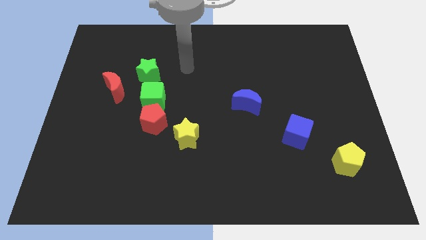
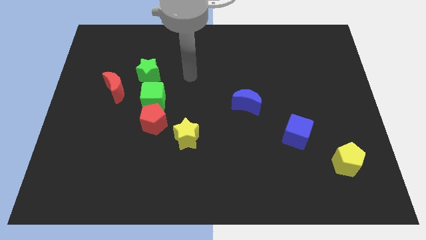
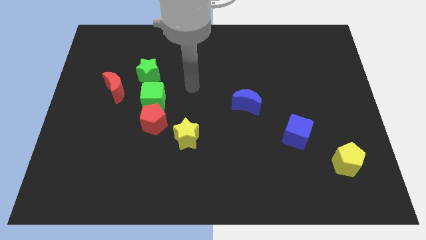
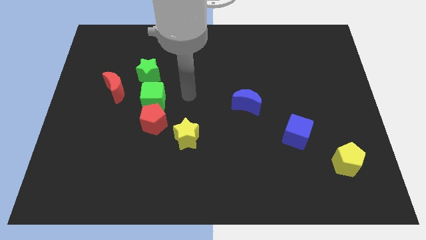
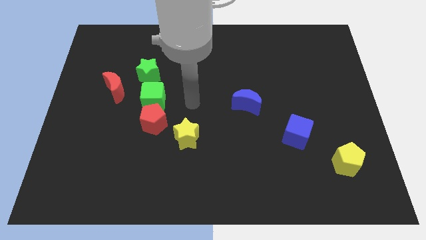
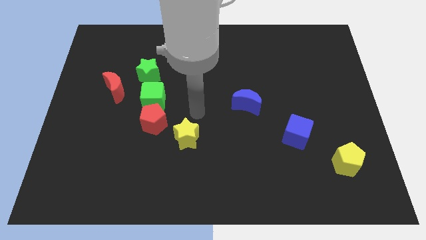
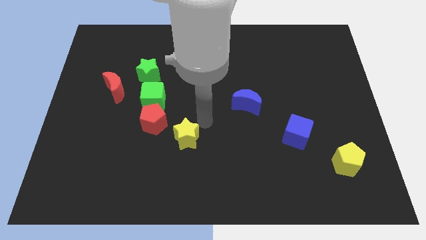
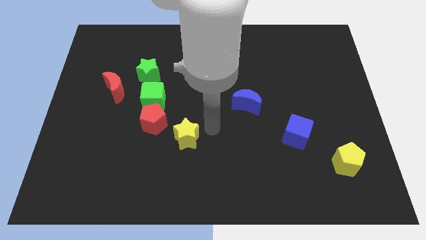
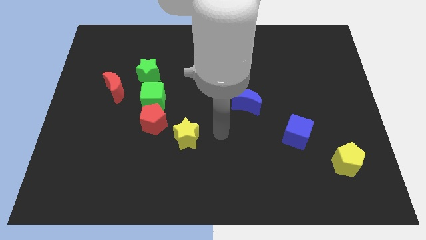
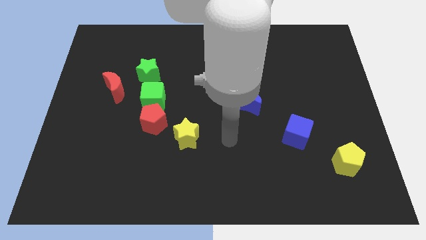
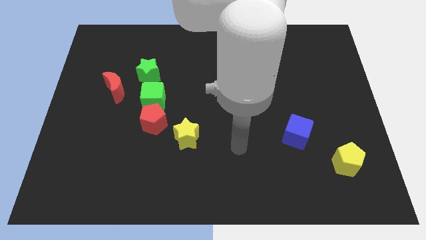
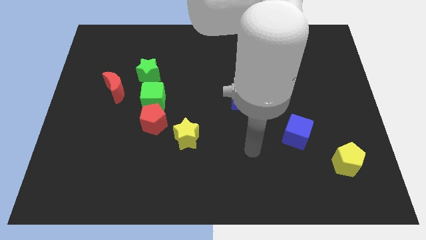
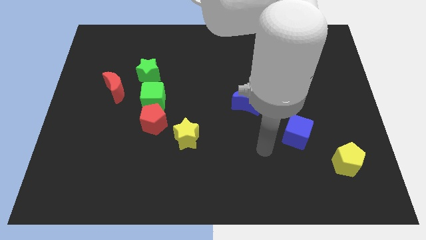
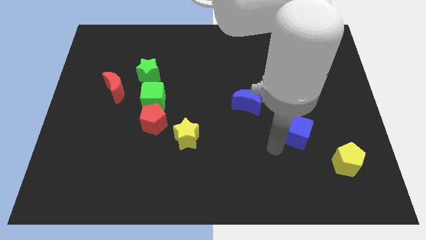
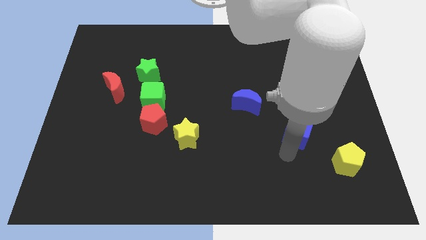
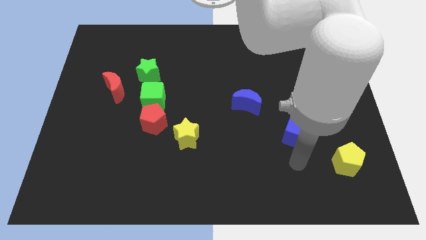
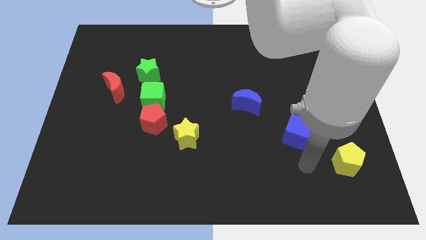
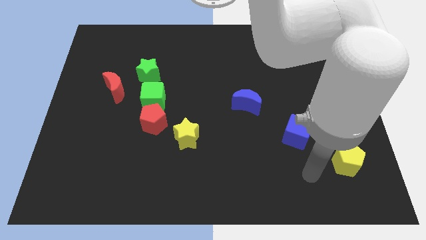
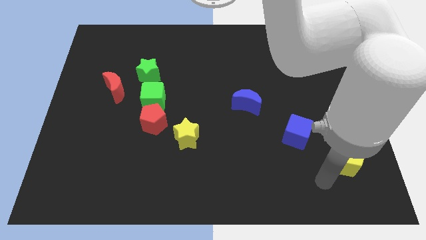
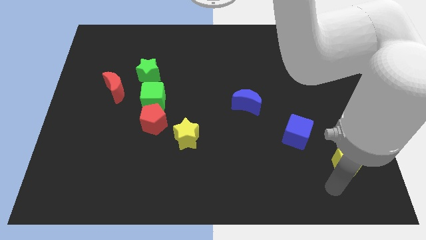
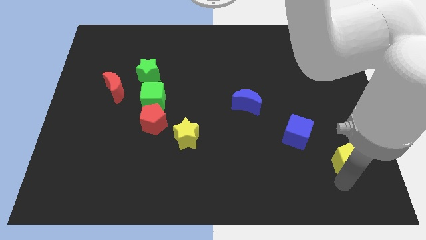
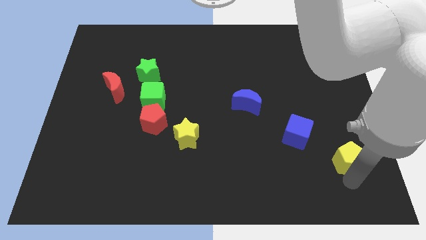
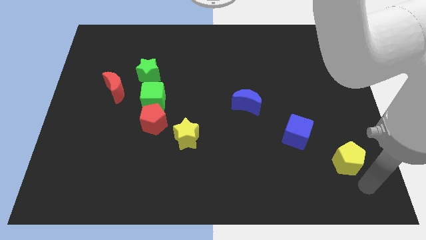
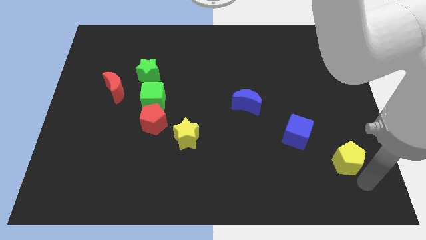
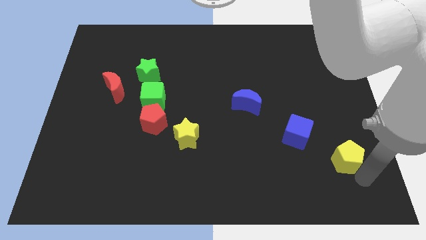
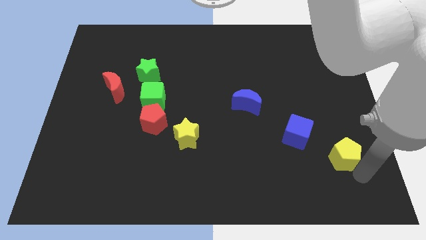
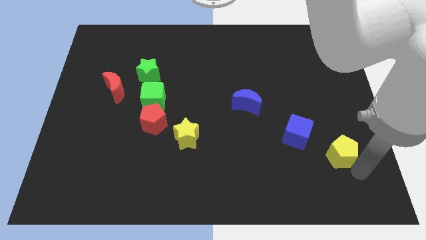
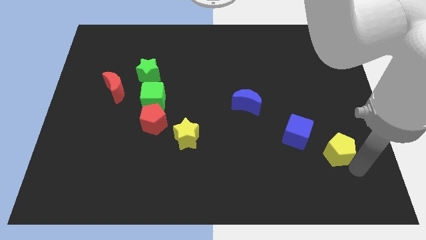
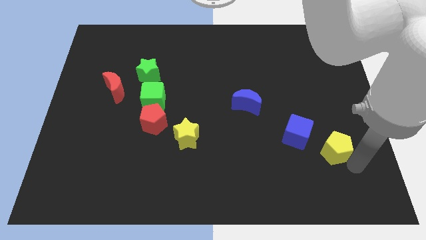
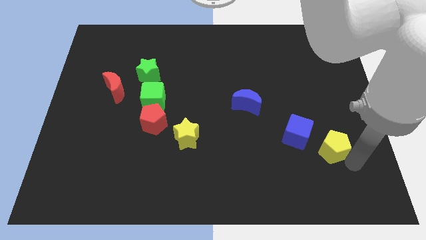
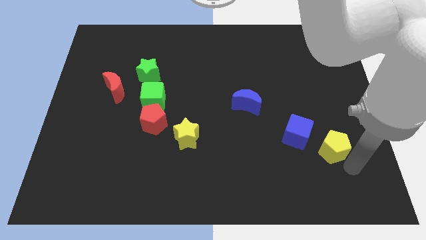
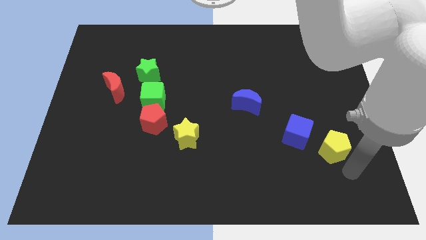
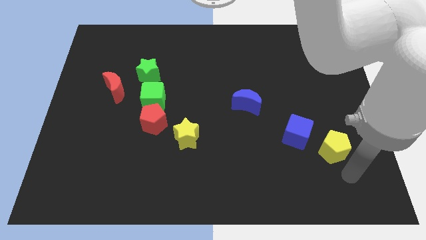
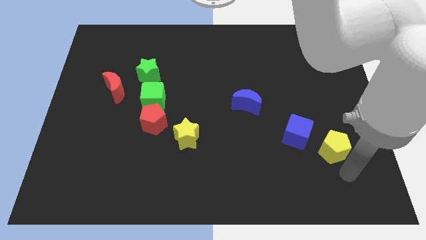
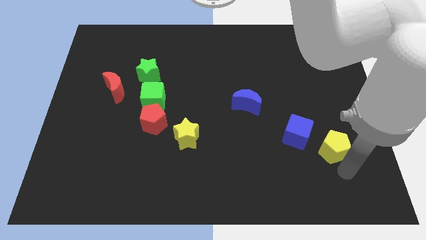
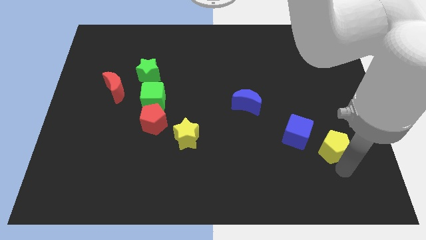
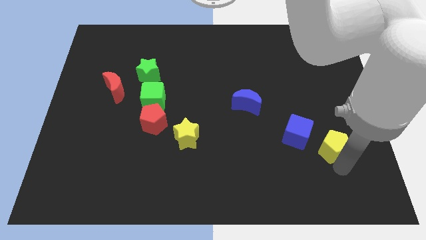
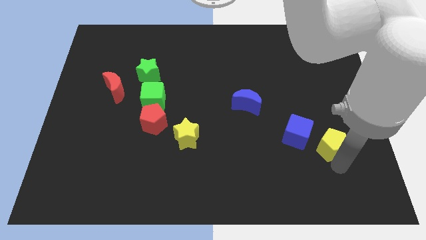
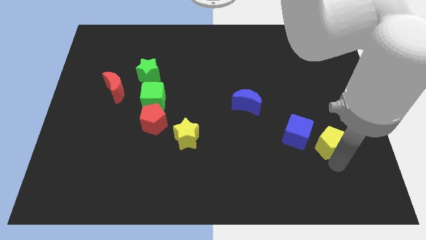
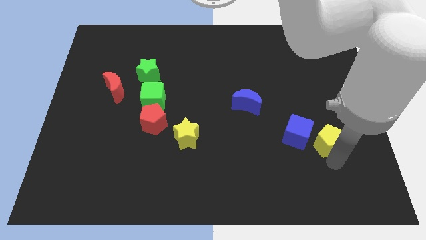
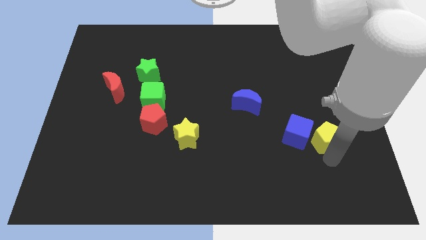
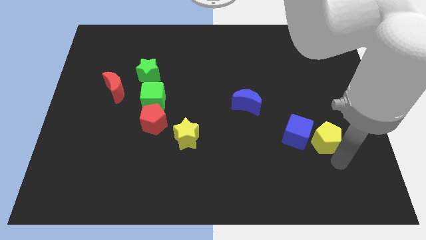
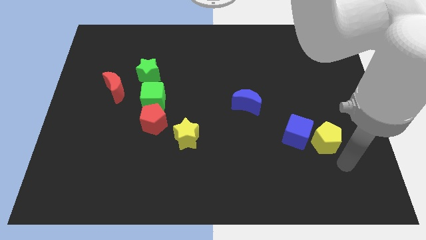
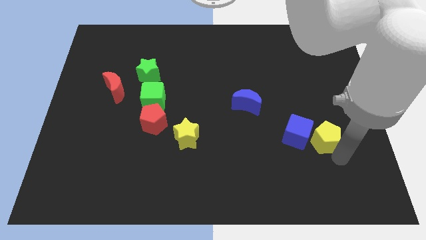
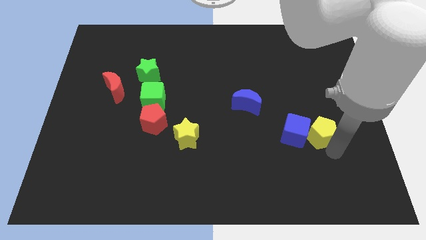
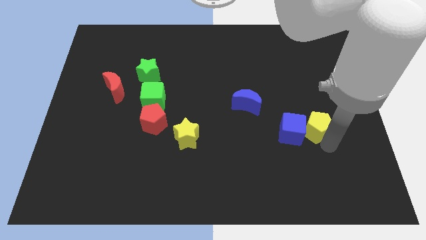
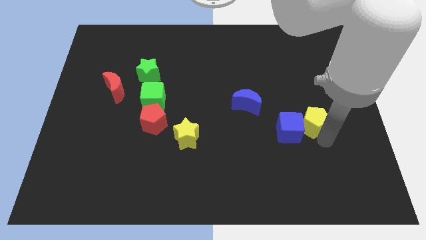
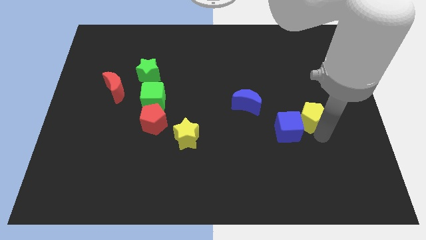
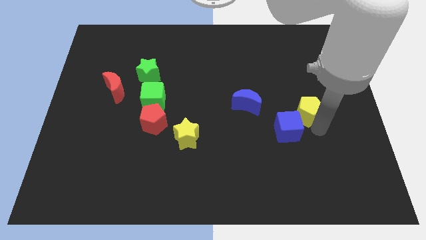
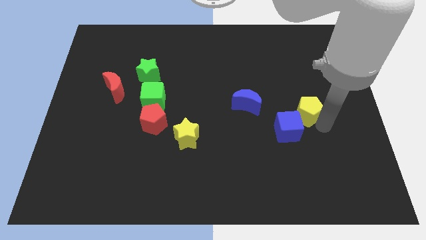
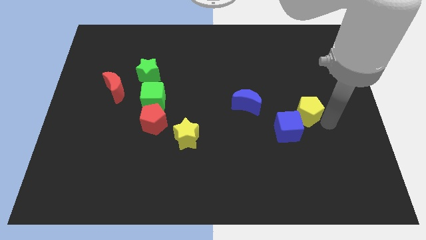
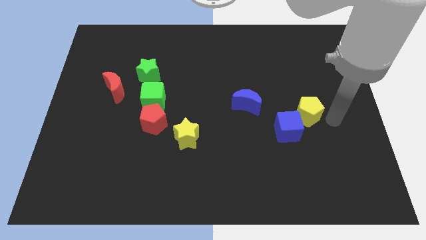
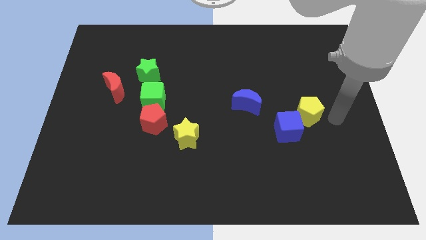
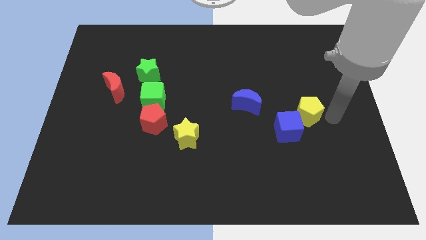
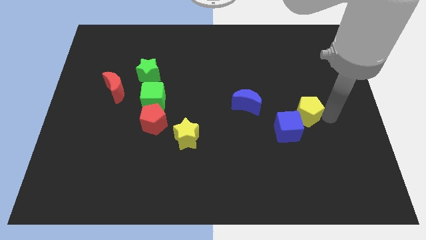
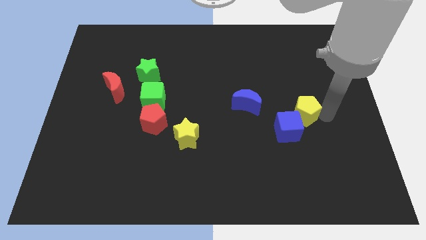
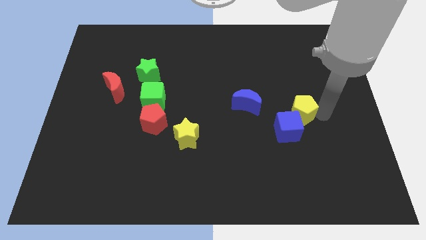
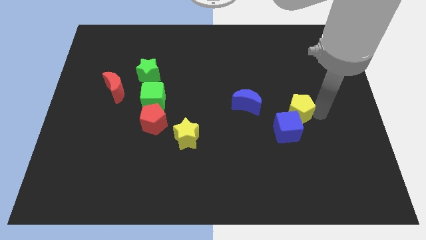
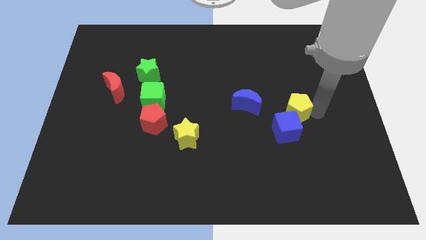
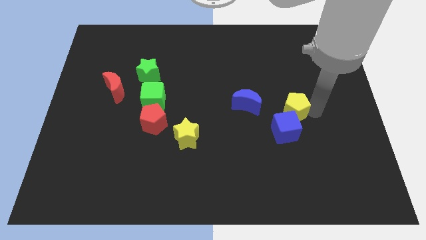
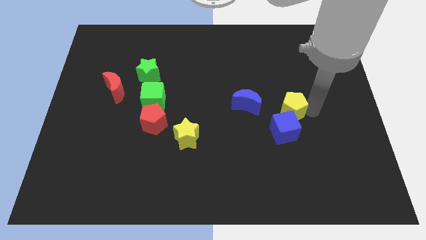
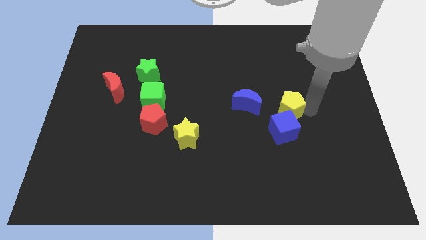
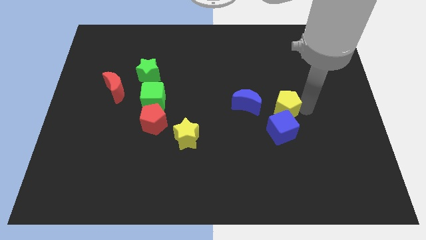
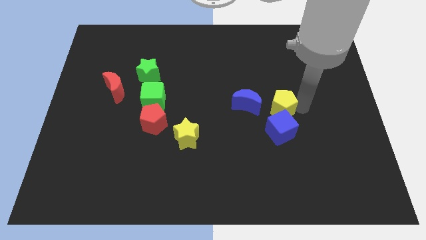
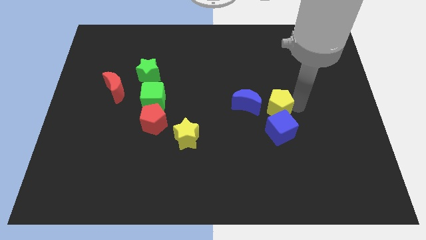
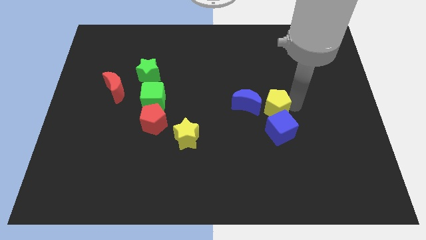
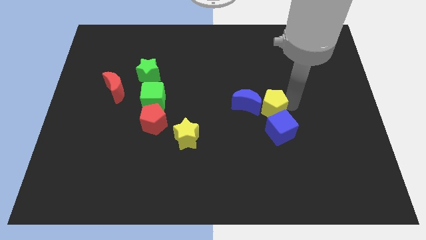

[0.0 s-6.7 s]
move the yellow pentagon to the blue moon

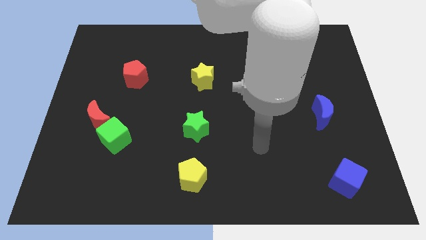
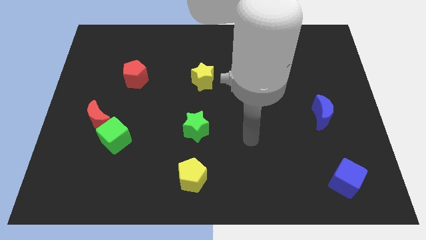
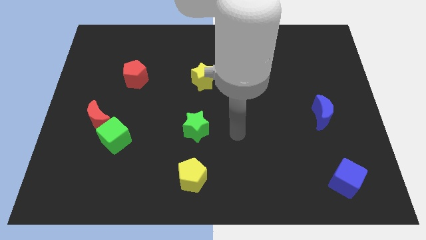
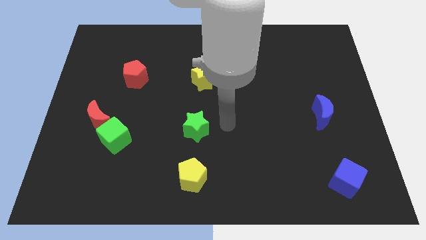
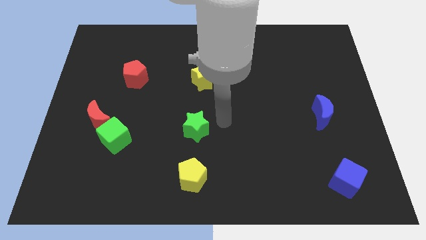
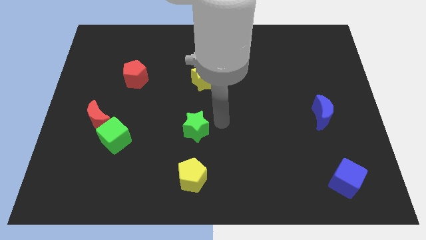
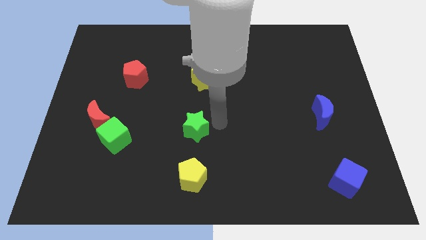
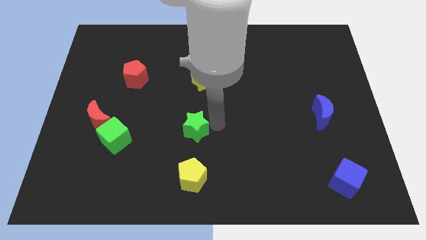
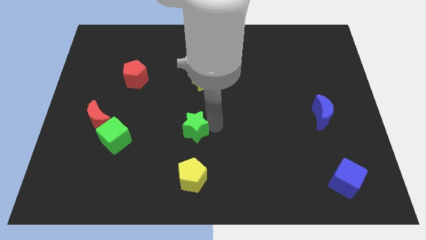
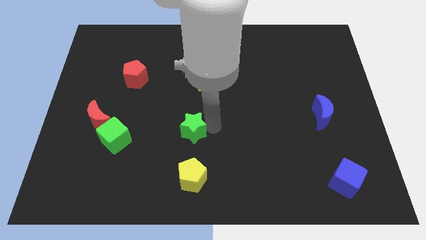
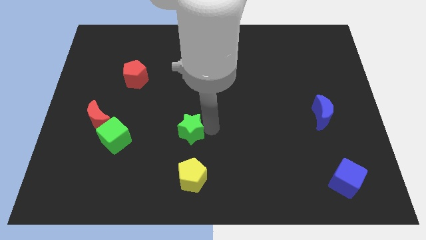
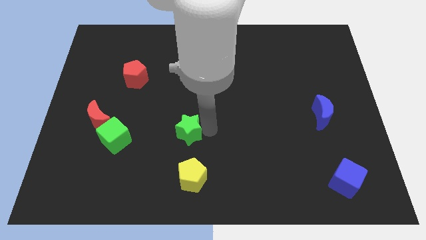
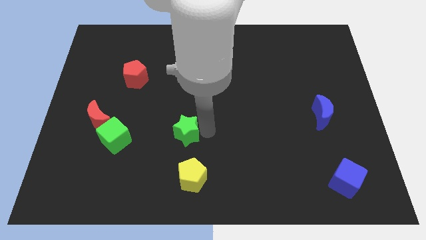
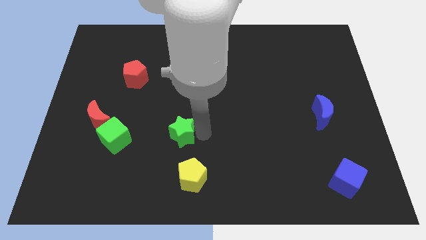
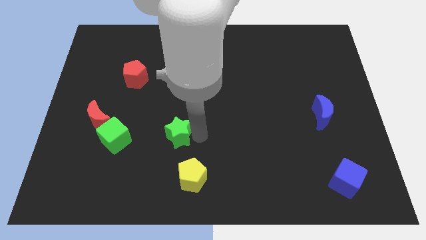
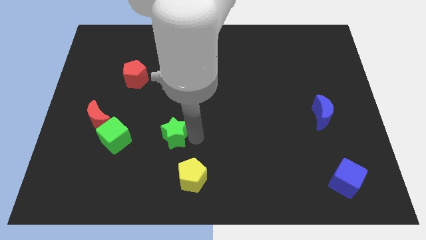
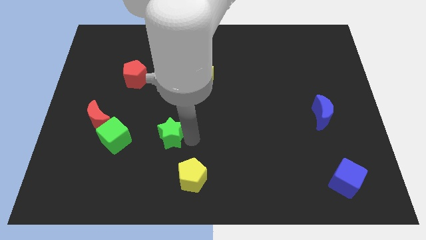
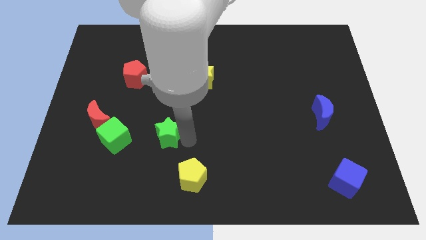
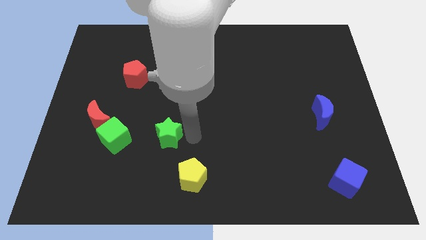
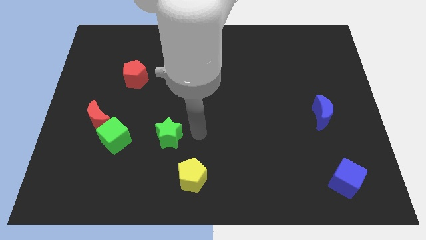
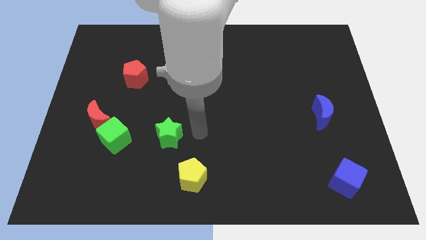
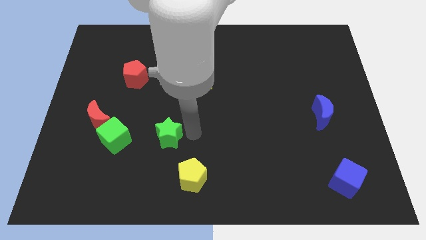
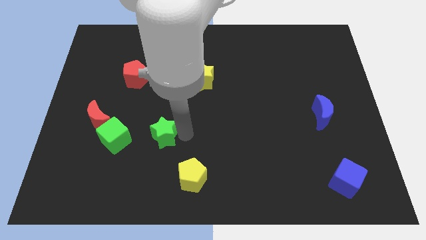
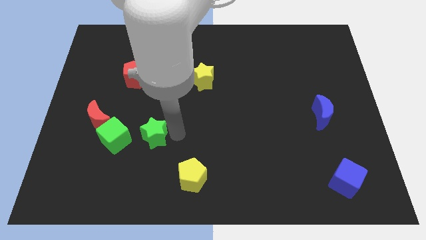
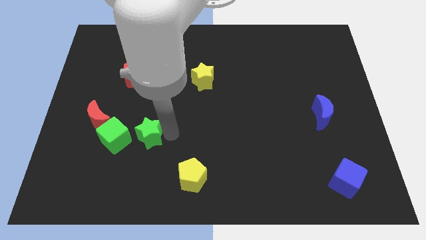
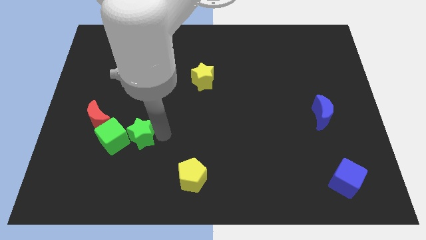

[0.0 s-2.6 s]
move the green star to the green cube
